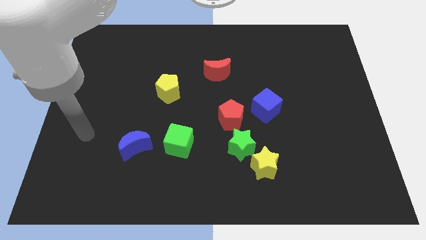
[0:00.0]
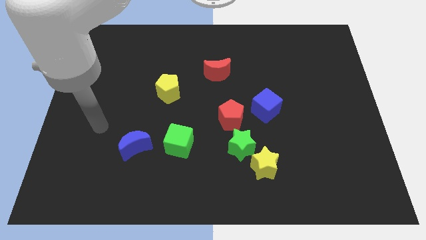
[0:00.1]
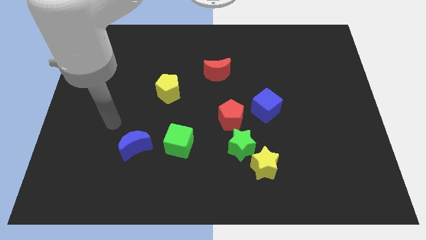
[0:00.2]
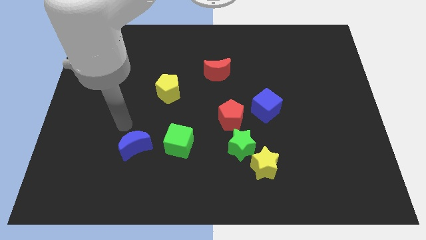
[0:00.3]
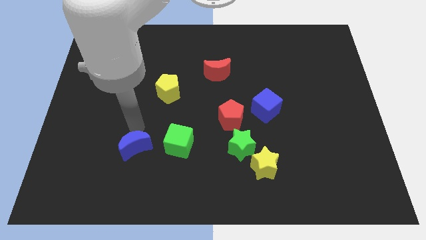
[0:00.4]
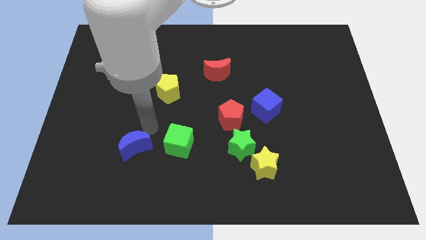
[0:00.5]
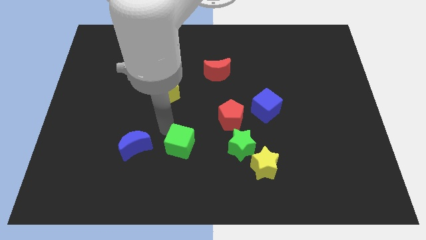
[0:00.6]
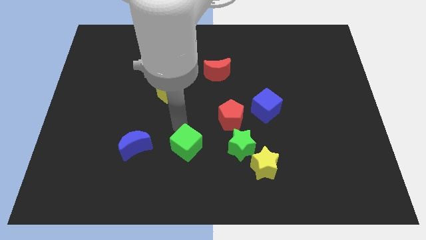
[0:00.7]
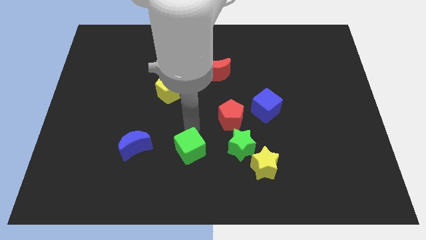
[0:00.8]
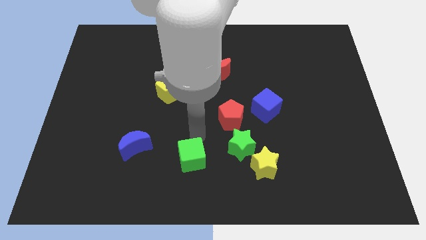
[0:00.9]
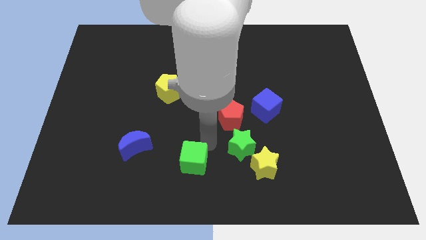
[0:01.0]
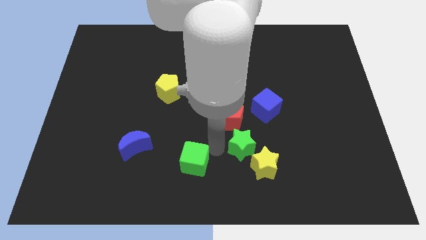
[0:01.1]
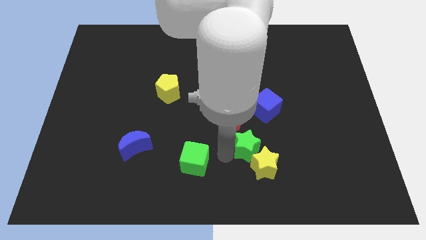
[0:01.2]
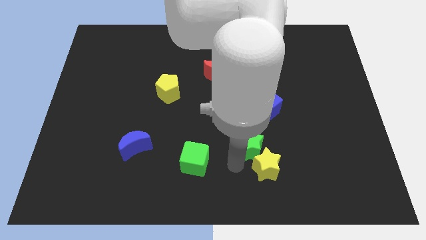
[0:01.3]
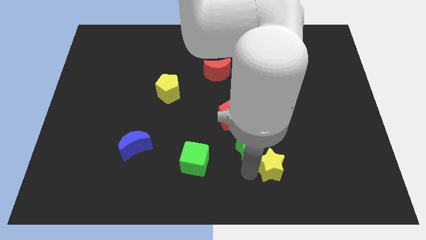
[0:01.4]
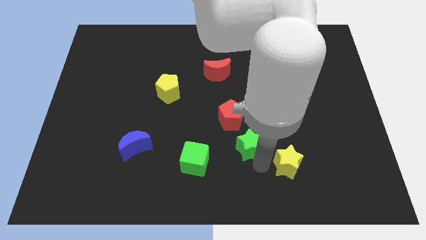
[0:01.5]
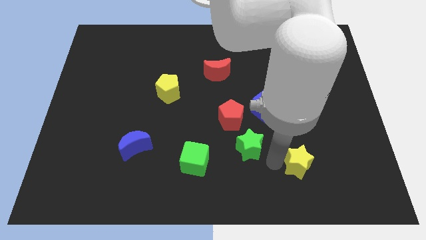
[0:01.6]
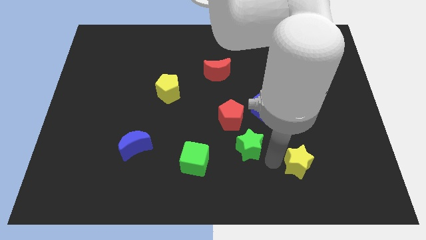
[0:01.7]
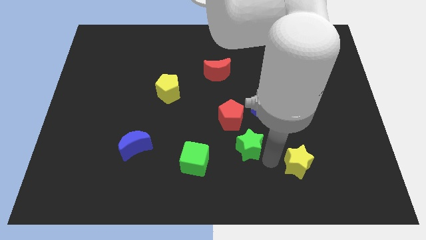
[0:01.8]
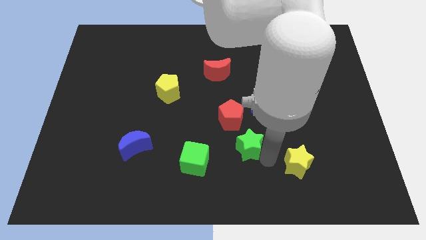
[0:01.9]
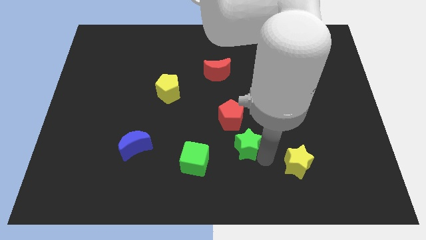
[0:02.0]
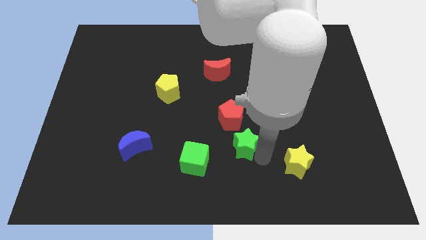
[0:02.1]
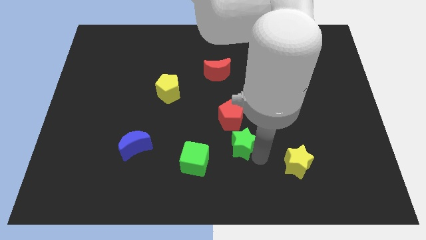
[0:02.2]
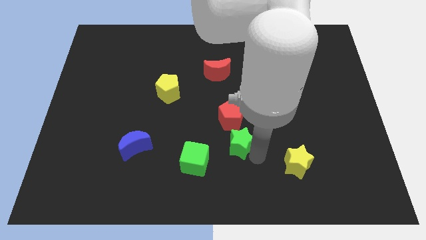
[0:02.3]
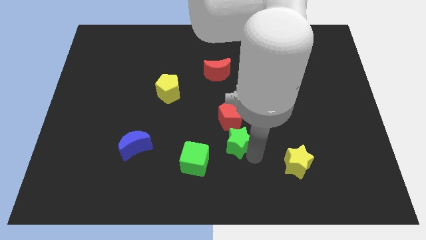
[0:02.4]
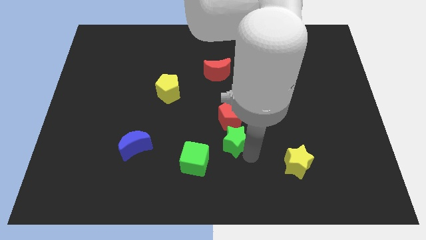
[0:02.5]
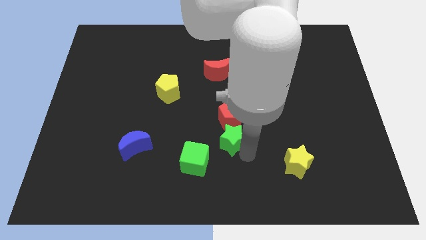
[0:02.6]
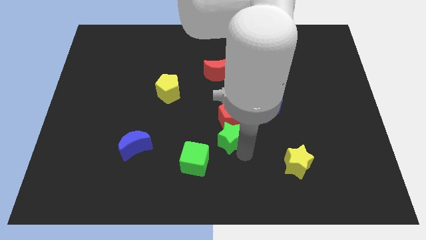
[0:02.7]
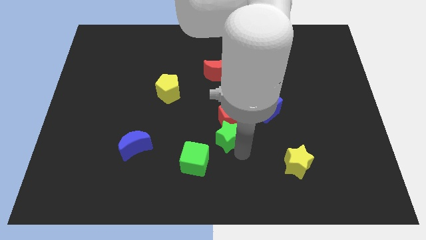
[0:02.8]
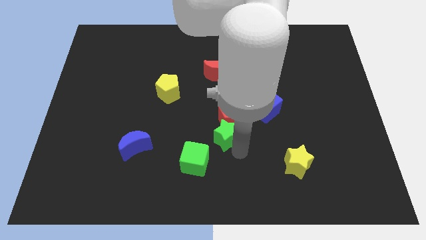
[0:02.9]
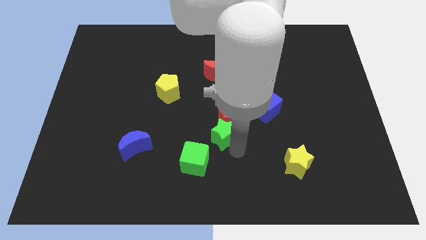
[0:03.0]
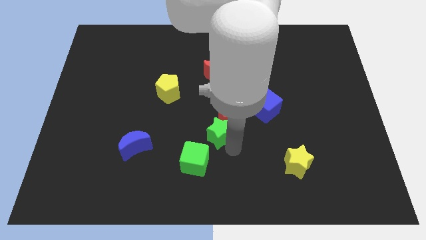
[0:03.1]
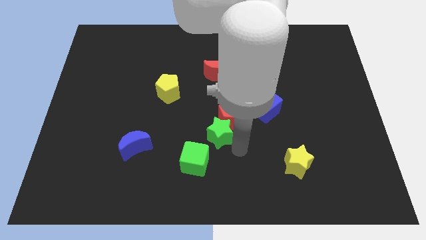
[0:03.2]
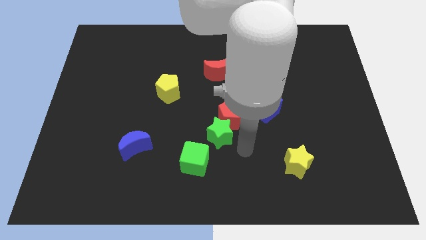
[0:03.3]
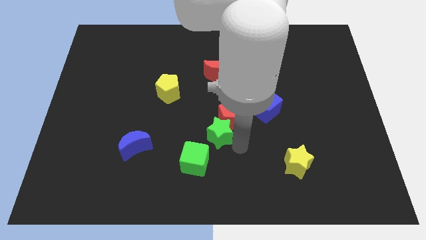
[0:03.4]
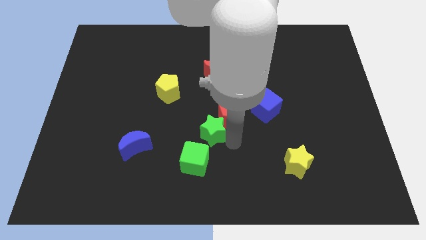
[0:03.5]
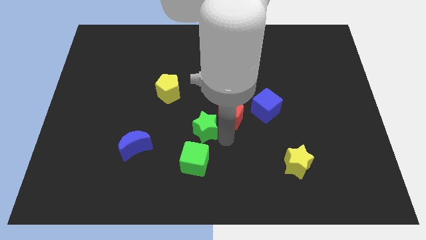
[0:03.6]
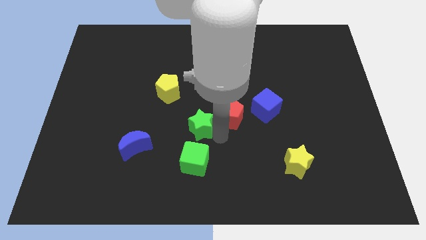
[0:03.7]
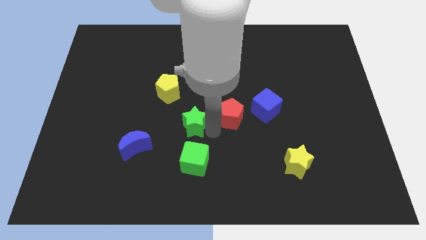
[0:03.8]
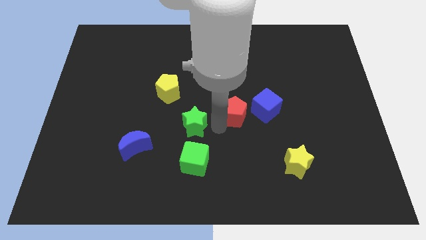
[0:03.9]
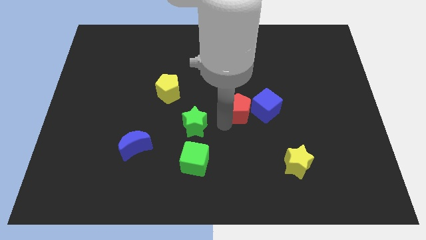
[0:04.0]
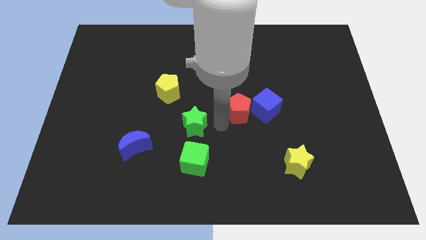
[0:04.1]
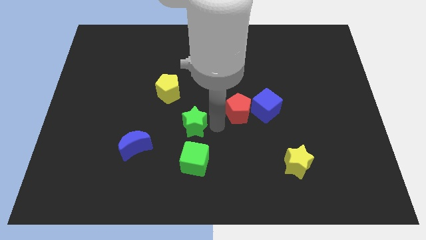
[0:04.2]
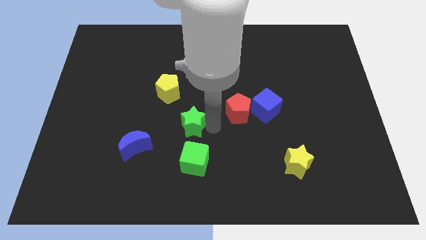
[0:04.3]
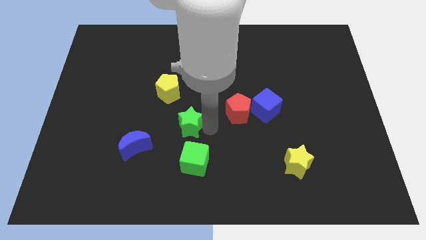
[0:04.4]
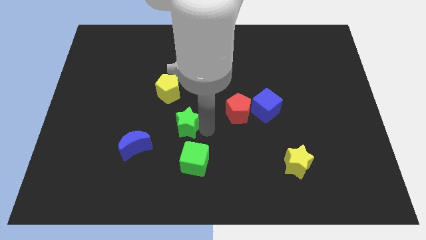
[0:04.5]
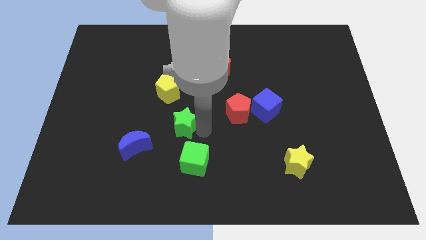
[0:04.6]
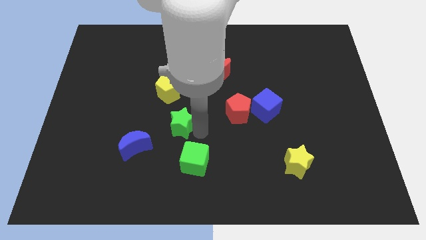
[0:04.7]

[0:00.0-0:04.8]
put the green star to the top right of the blue moon

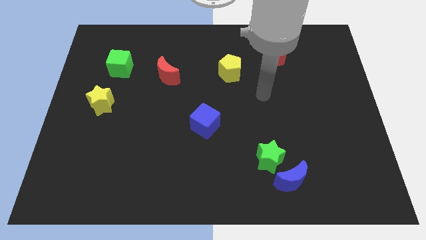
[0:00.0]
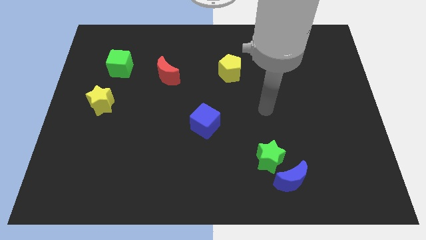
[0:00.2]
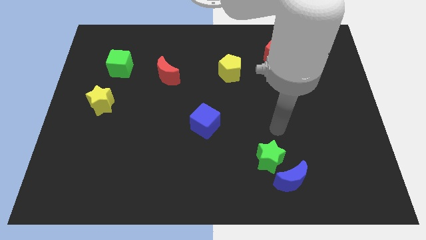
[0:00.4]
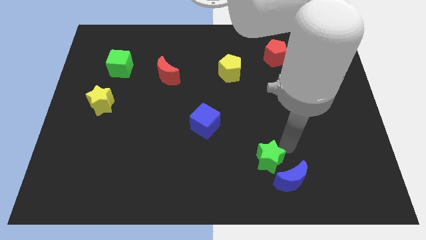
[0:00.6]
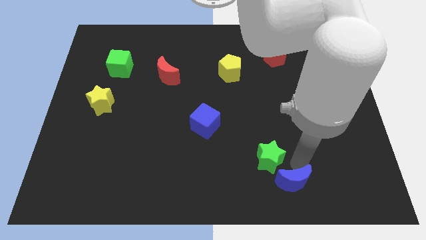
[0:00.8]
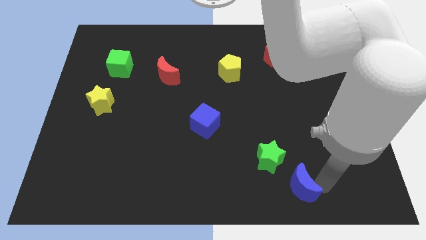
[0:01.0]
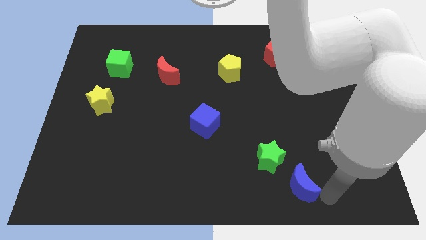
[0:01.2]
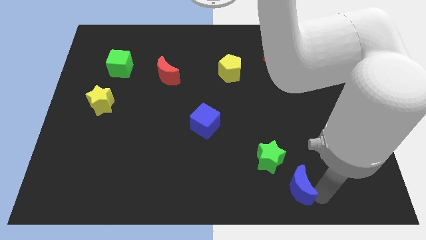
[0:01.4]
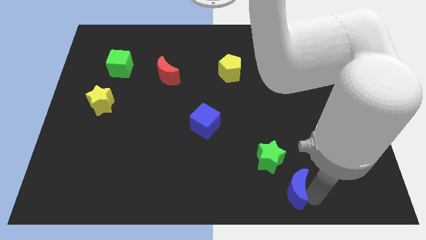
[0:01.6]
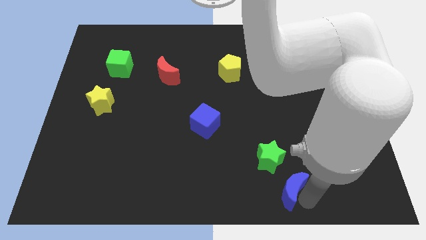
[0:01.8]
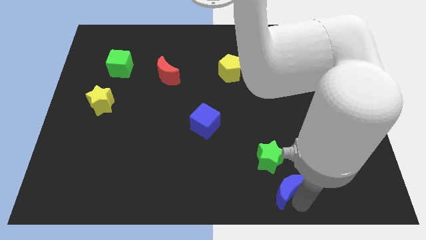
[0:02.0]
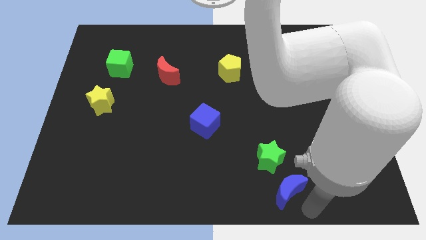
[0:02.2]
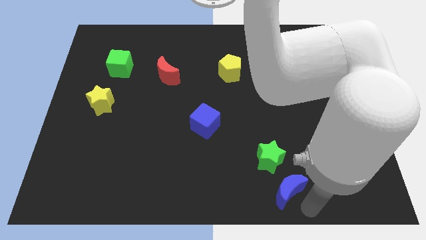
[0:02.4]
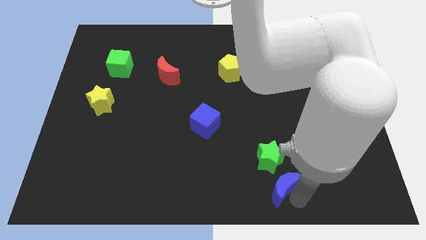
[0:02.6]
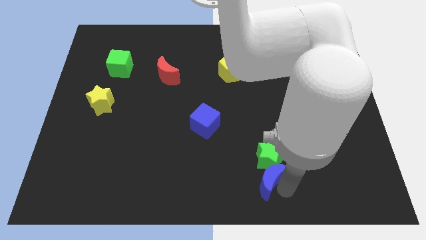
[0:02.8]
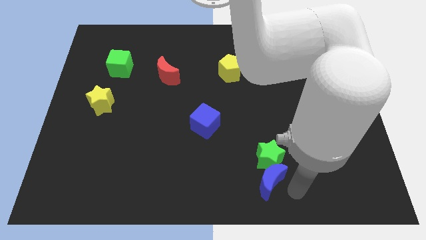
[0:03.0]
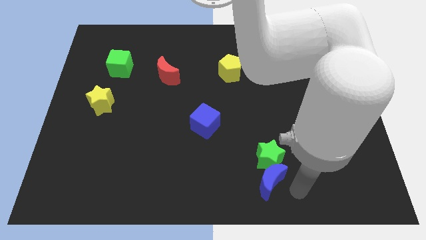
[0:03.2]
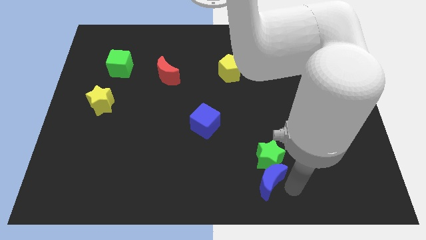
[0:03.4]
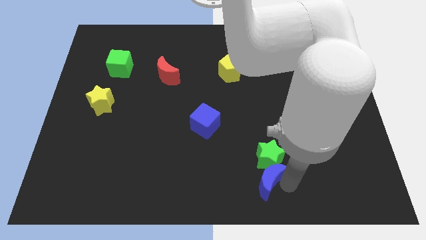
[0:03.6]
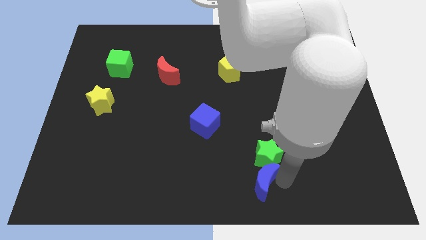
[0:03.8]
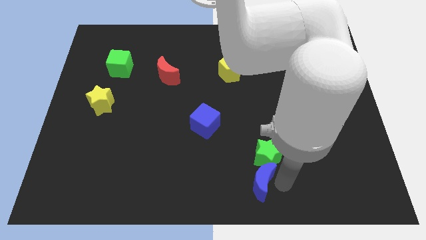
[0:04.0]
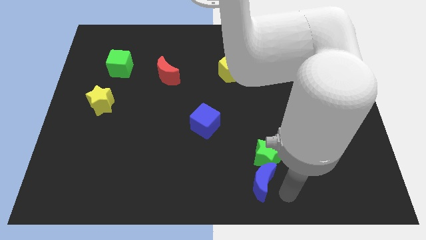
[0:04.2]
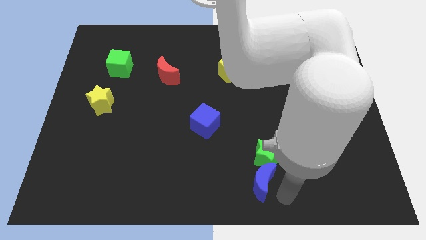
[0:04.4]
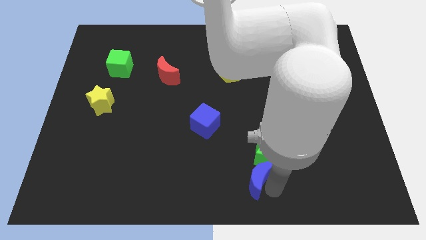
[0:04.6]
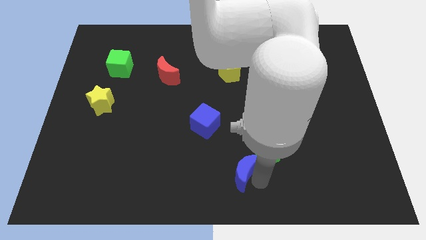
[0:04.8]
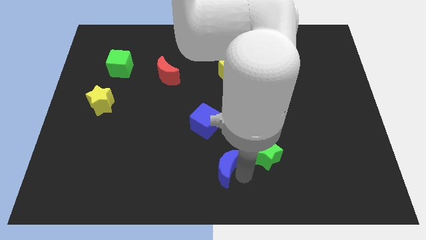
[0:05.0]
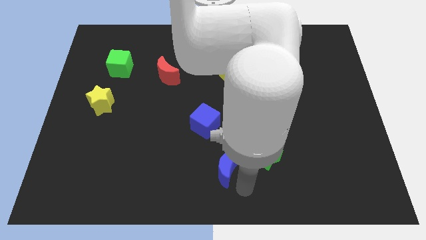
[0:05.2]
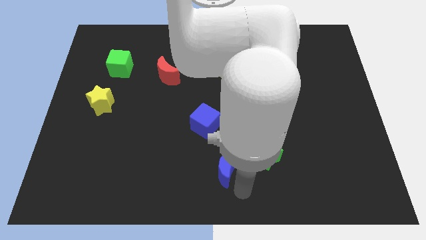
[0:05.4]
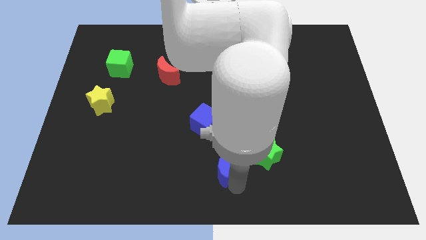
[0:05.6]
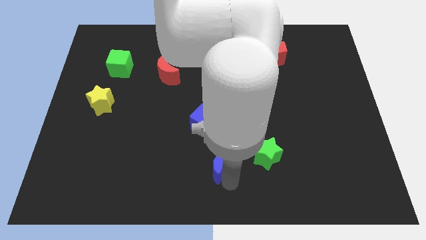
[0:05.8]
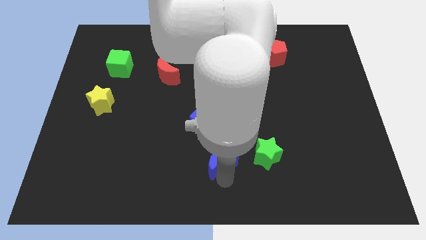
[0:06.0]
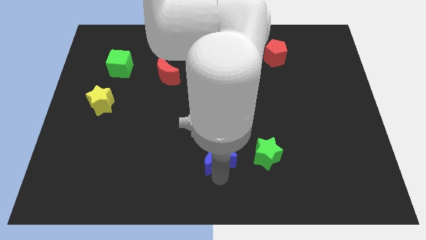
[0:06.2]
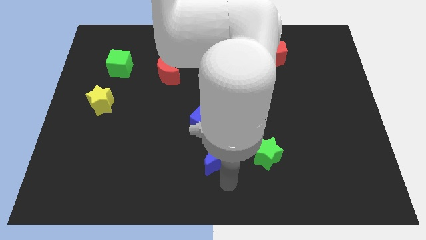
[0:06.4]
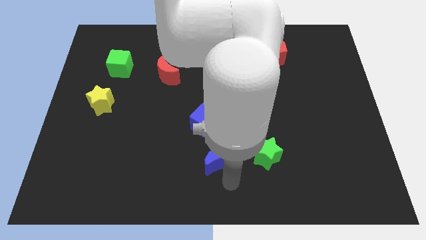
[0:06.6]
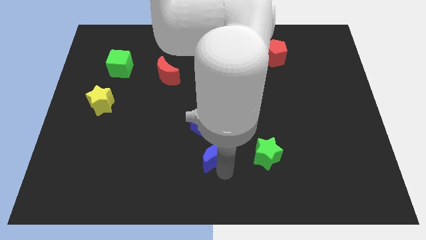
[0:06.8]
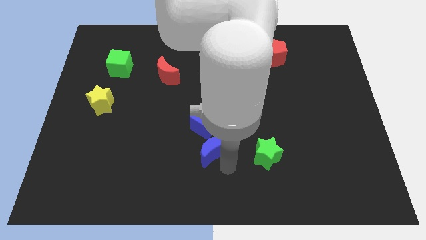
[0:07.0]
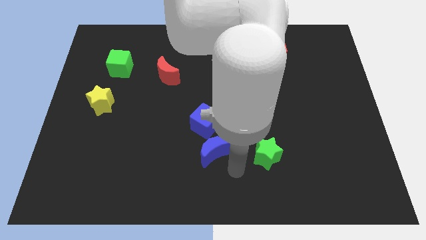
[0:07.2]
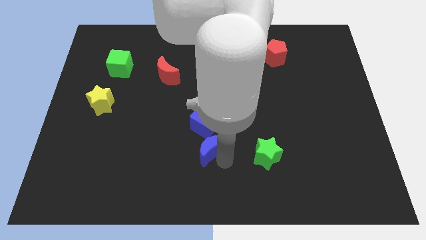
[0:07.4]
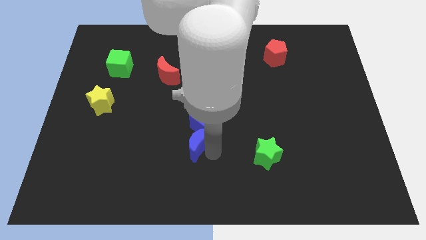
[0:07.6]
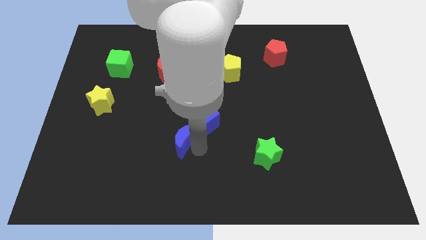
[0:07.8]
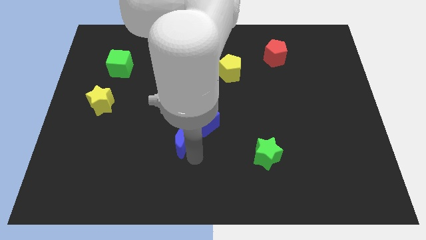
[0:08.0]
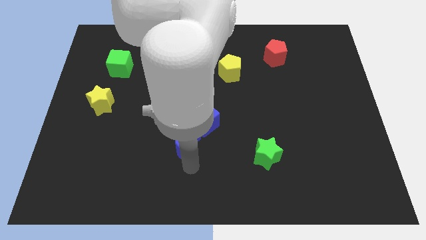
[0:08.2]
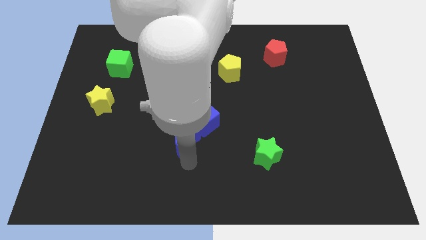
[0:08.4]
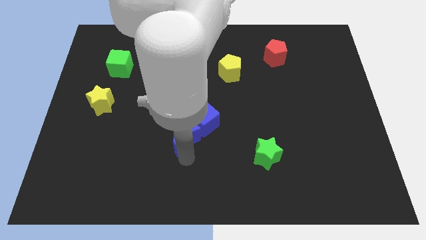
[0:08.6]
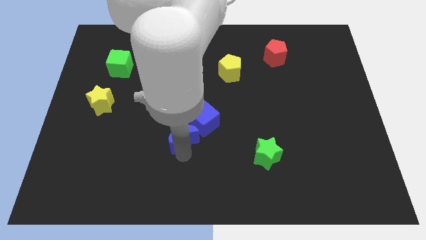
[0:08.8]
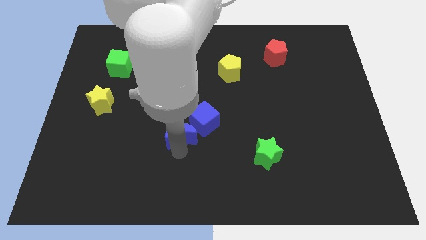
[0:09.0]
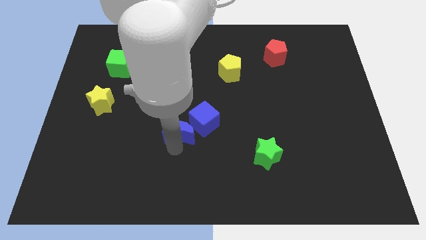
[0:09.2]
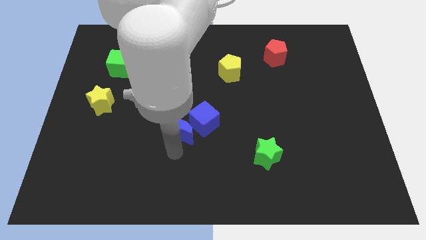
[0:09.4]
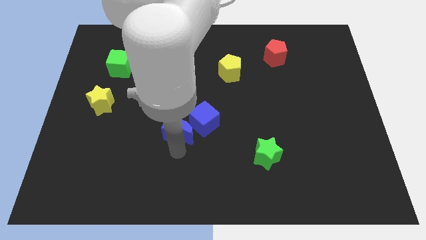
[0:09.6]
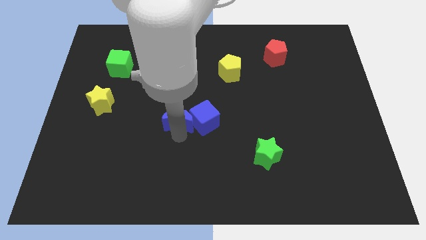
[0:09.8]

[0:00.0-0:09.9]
push the blue moon to the top left of the blue cube
